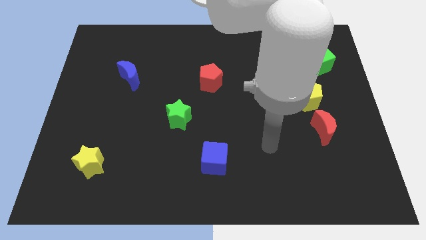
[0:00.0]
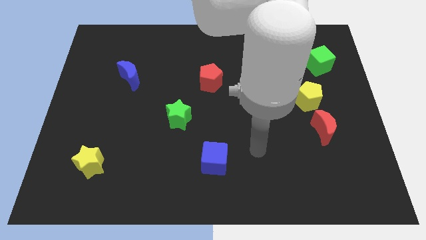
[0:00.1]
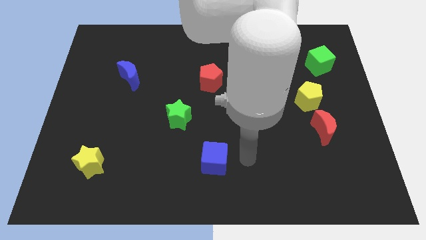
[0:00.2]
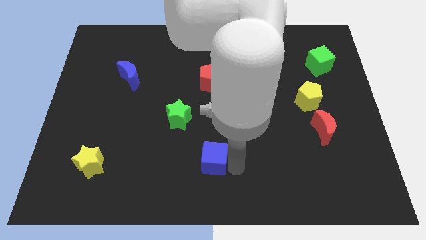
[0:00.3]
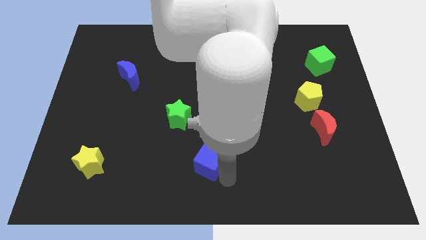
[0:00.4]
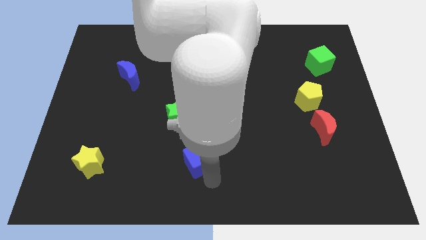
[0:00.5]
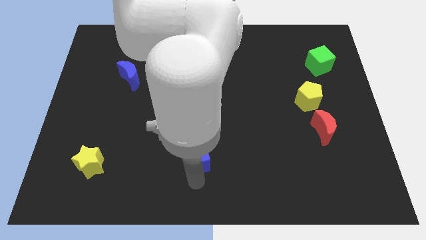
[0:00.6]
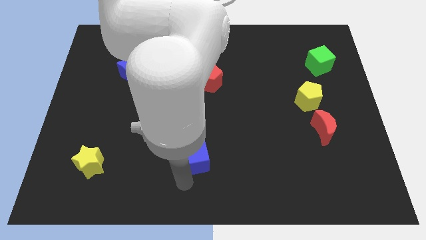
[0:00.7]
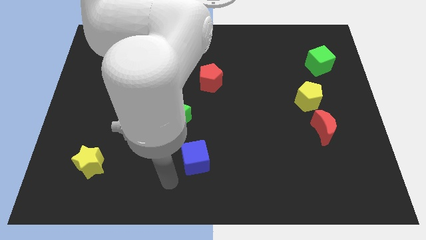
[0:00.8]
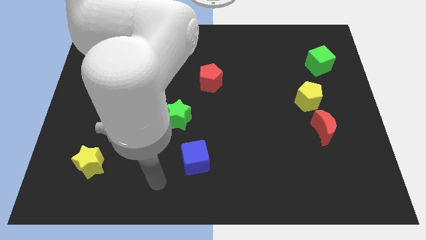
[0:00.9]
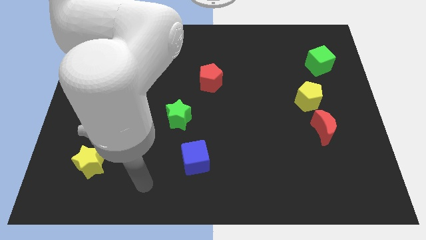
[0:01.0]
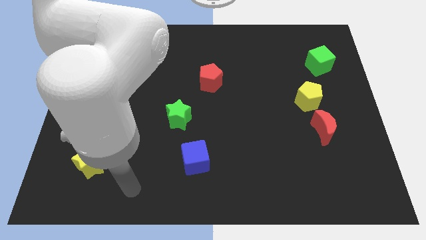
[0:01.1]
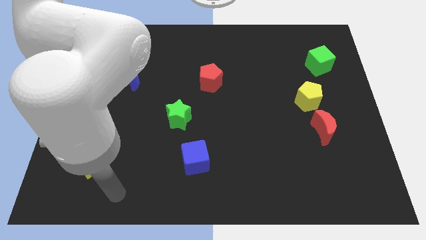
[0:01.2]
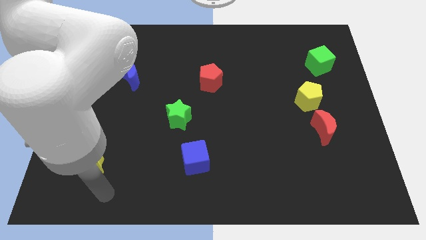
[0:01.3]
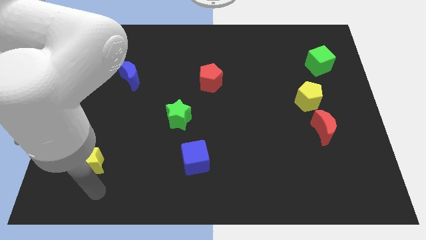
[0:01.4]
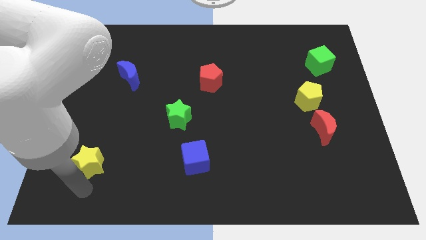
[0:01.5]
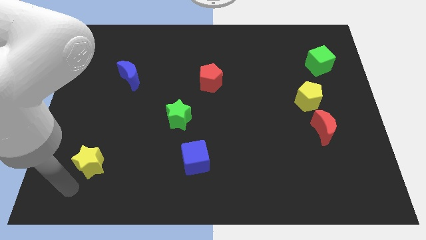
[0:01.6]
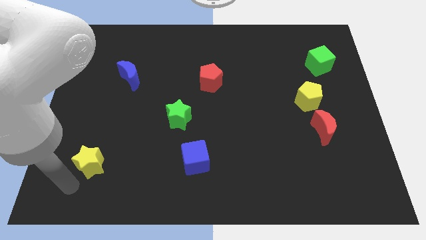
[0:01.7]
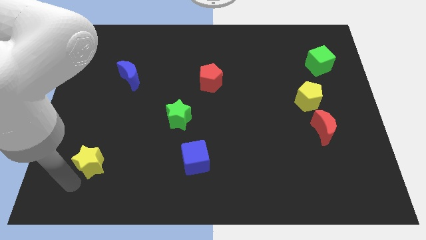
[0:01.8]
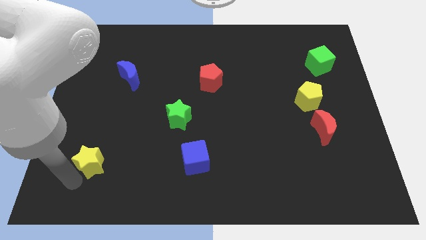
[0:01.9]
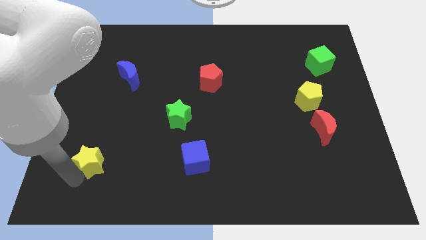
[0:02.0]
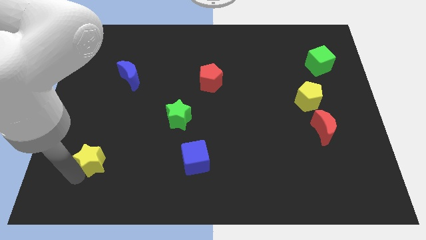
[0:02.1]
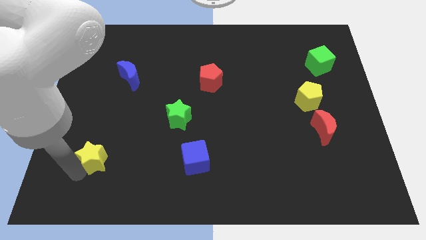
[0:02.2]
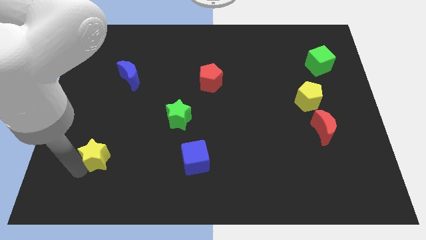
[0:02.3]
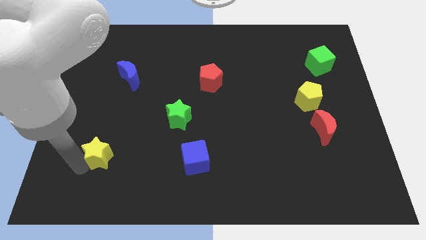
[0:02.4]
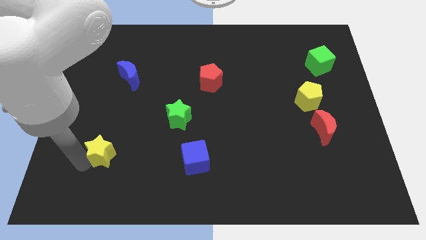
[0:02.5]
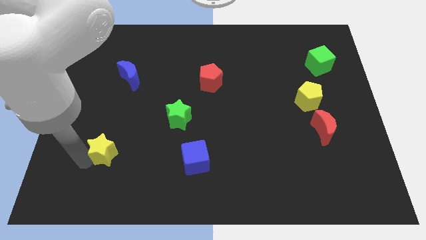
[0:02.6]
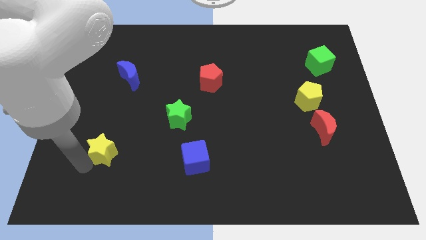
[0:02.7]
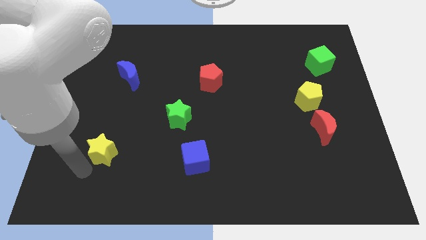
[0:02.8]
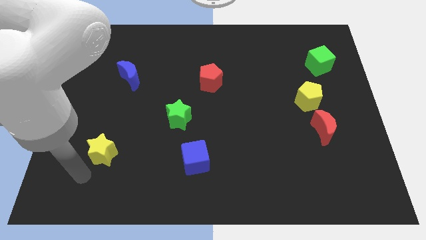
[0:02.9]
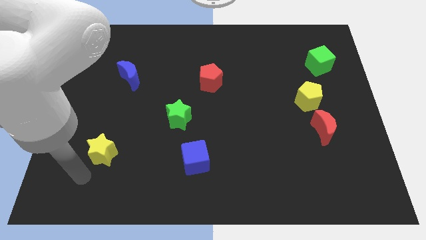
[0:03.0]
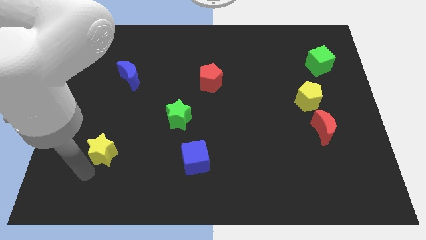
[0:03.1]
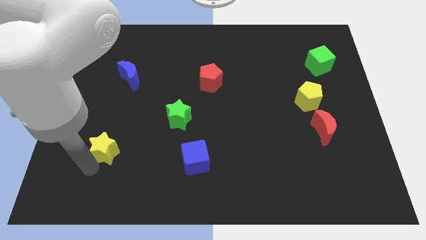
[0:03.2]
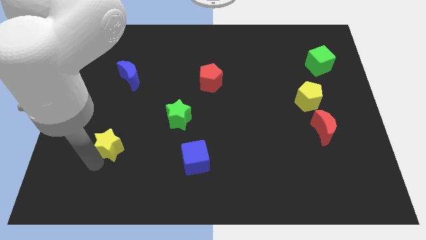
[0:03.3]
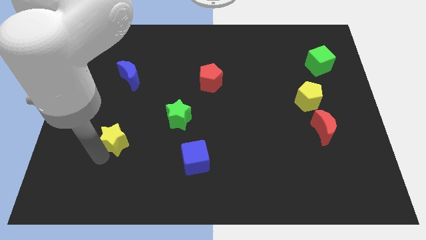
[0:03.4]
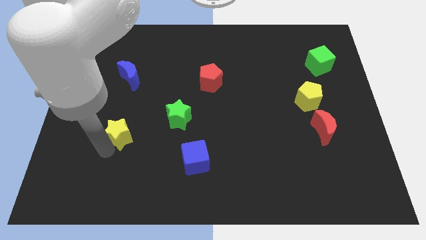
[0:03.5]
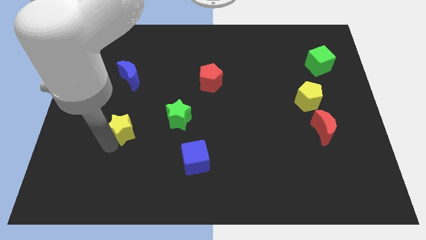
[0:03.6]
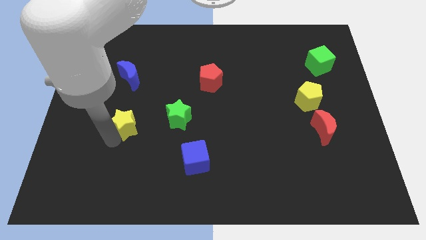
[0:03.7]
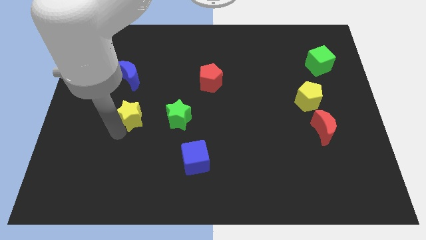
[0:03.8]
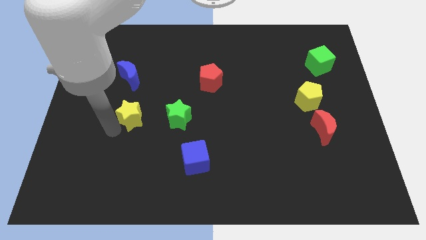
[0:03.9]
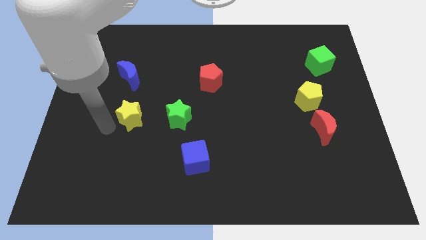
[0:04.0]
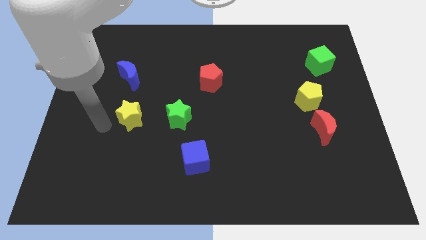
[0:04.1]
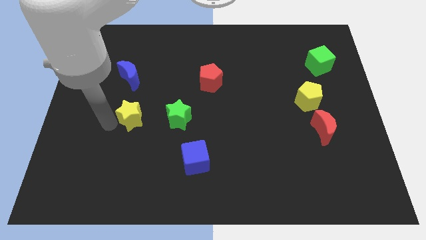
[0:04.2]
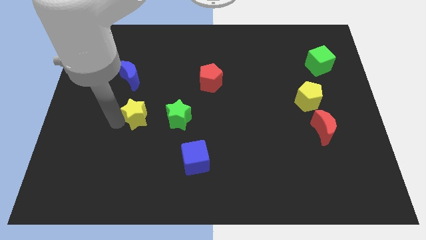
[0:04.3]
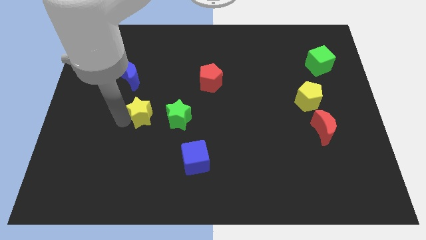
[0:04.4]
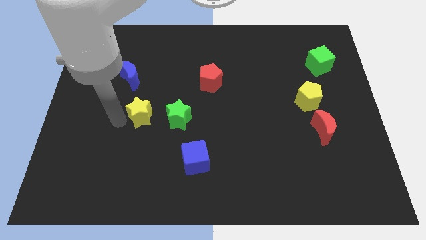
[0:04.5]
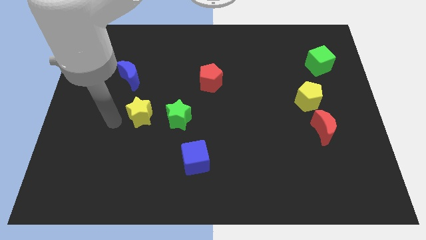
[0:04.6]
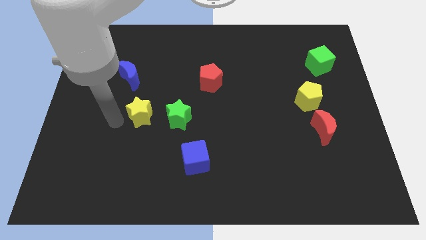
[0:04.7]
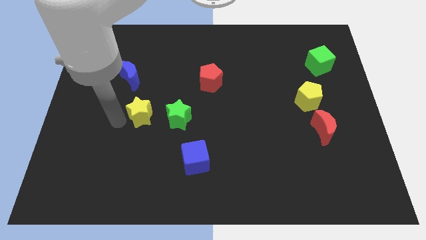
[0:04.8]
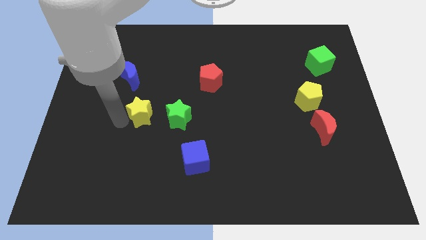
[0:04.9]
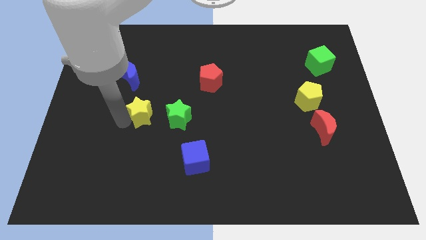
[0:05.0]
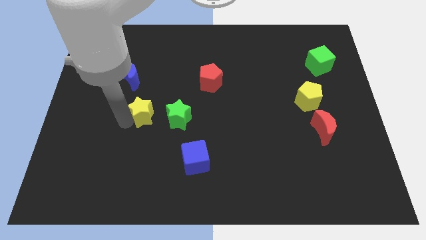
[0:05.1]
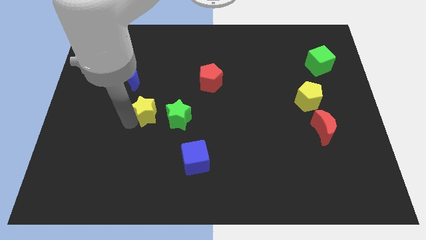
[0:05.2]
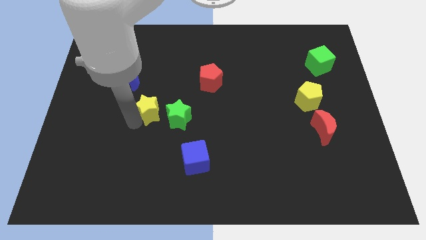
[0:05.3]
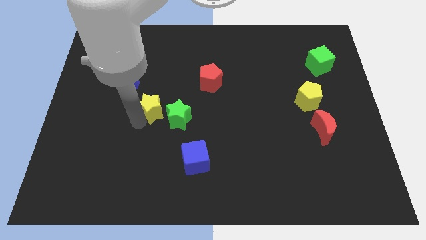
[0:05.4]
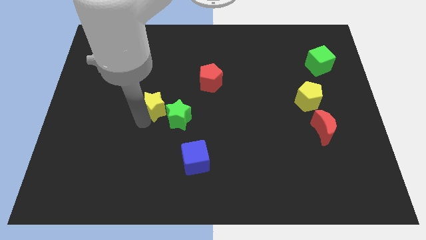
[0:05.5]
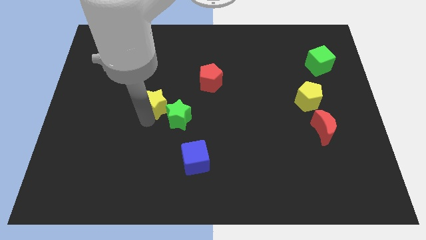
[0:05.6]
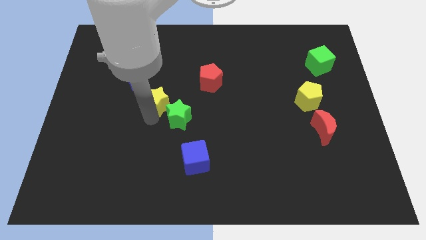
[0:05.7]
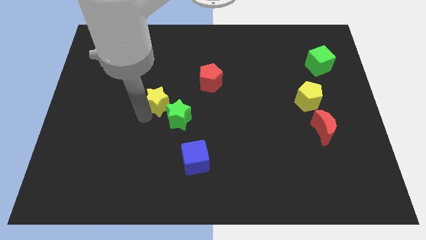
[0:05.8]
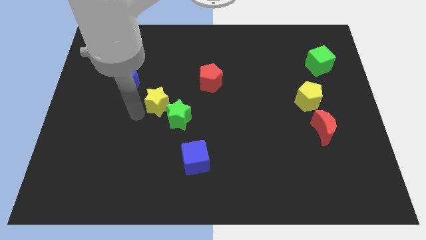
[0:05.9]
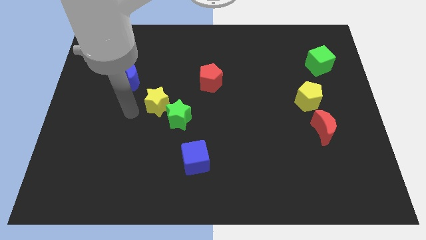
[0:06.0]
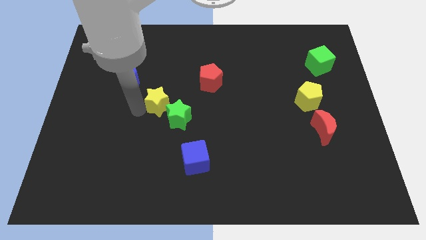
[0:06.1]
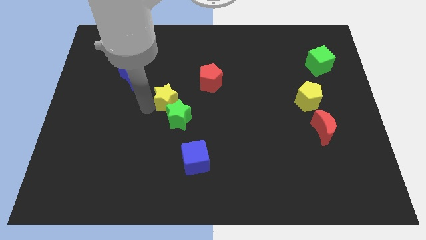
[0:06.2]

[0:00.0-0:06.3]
push the yellow star diagonally down and to the left of the red pentagon
